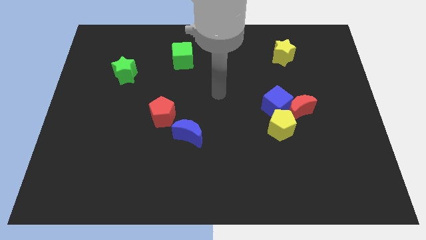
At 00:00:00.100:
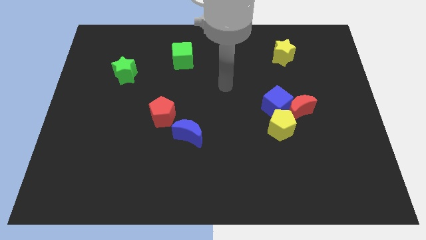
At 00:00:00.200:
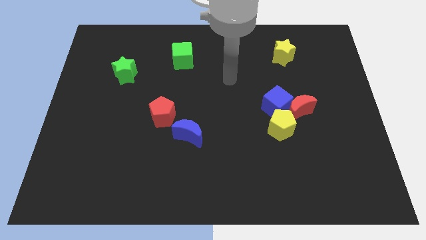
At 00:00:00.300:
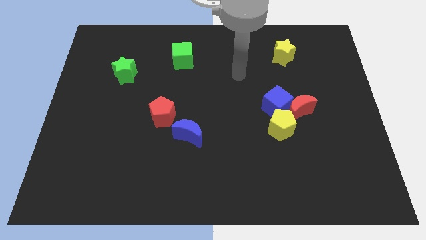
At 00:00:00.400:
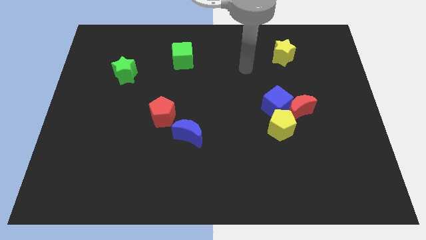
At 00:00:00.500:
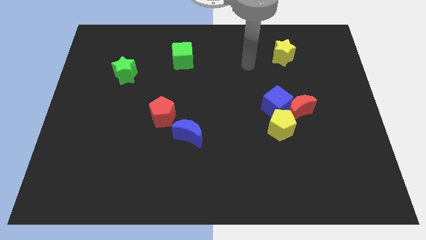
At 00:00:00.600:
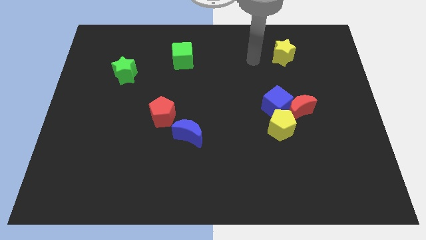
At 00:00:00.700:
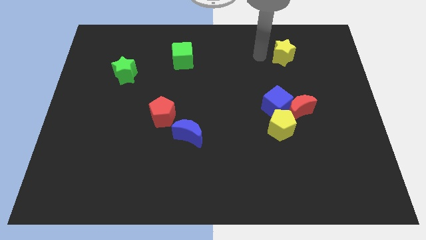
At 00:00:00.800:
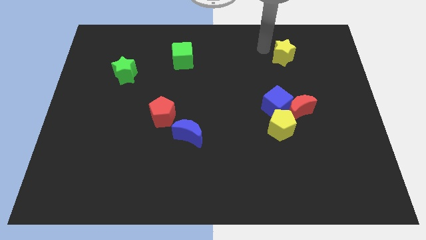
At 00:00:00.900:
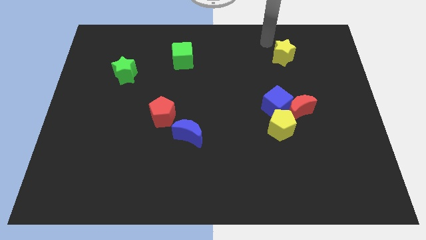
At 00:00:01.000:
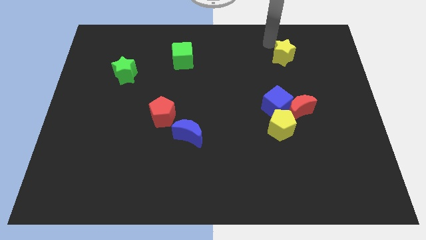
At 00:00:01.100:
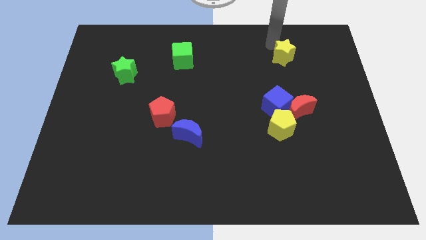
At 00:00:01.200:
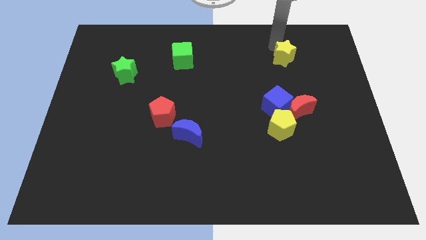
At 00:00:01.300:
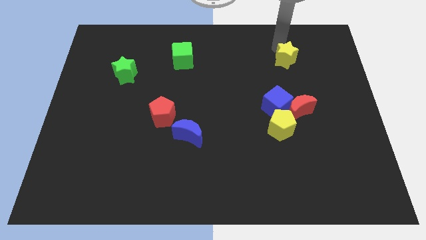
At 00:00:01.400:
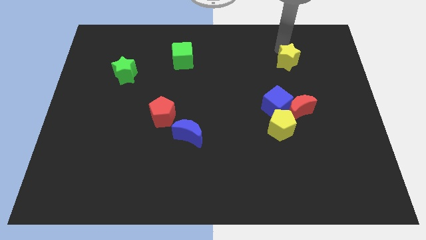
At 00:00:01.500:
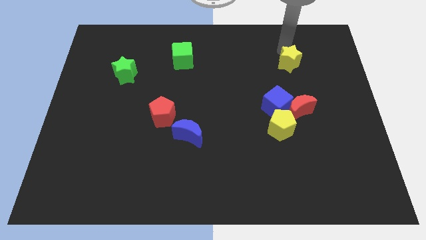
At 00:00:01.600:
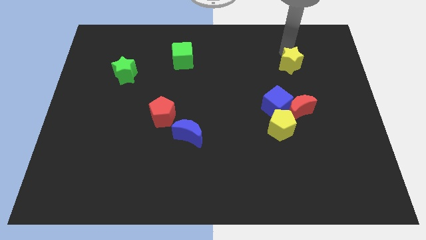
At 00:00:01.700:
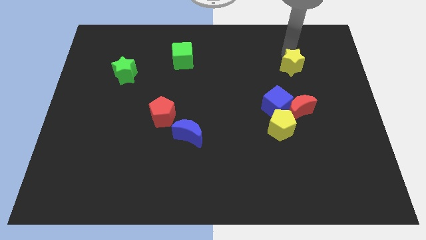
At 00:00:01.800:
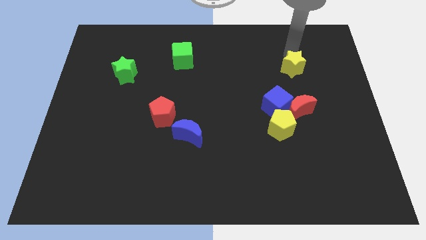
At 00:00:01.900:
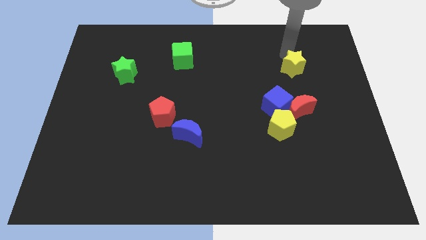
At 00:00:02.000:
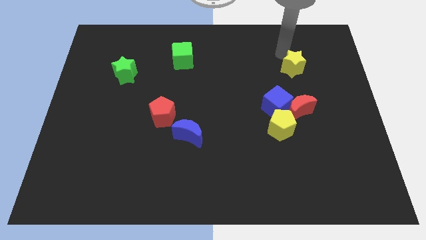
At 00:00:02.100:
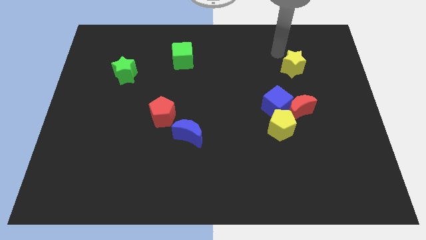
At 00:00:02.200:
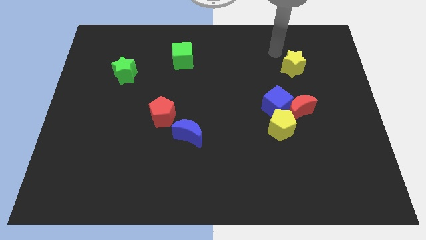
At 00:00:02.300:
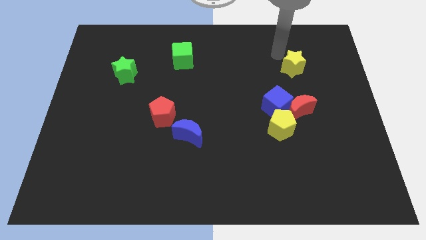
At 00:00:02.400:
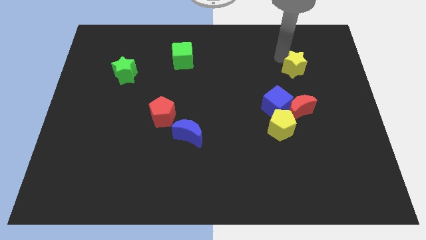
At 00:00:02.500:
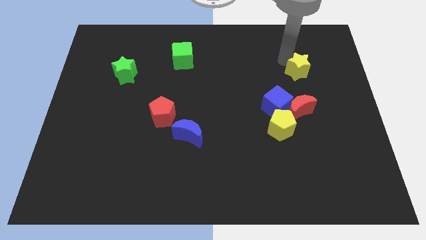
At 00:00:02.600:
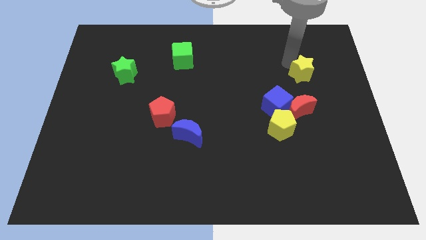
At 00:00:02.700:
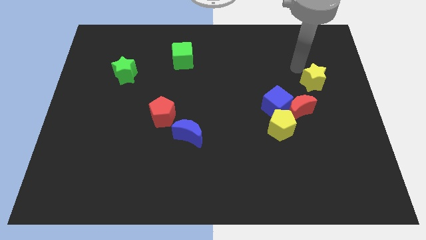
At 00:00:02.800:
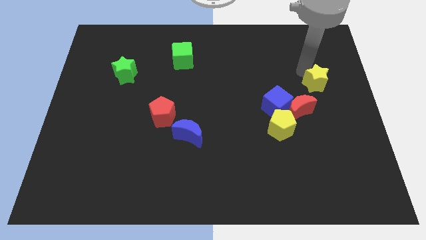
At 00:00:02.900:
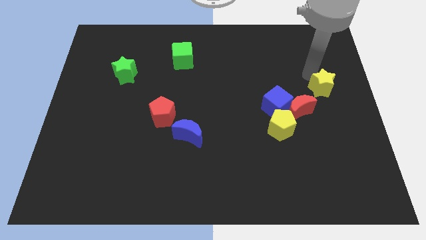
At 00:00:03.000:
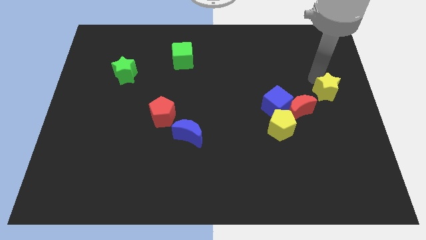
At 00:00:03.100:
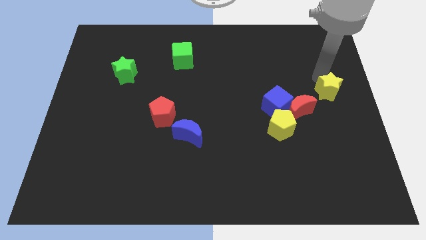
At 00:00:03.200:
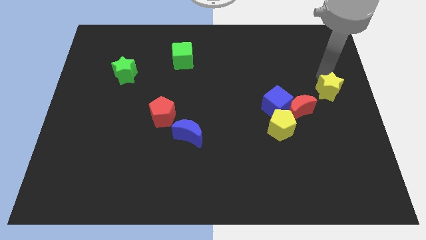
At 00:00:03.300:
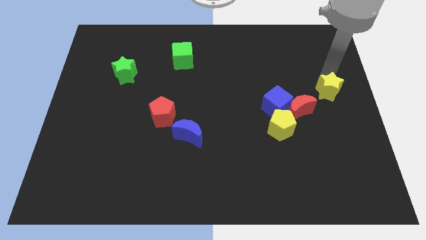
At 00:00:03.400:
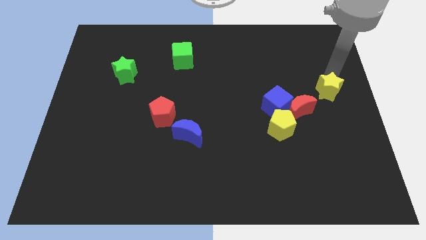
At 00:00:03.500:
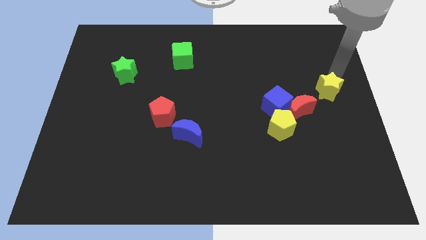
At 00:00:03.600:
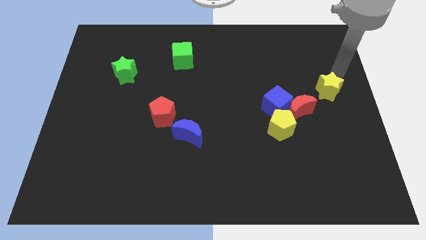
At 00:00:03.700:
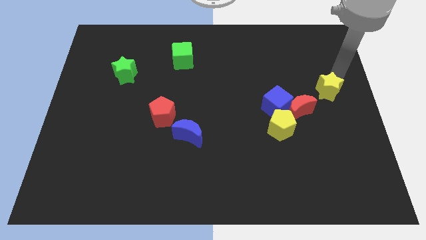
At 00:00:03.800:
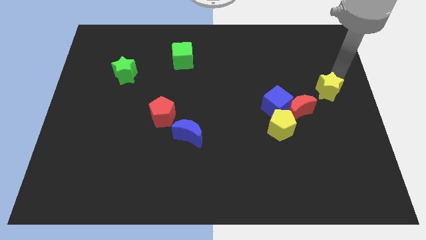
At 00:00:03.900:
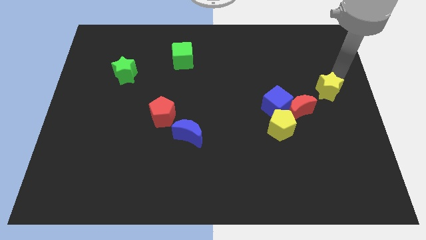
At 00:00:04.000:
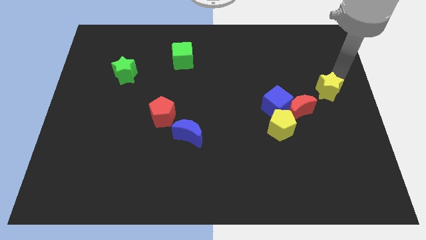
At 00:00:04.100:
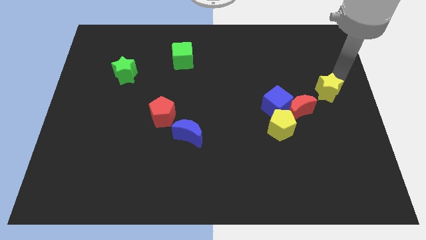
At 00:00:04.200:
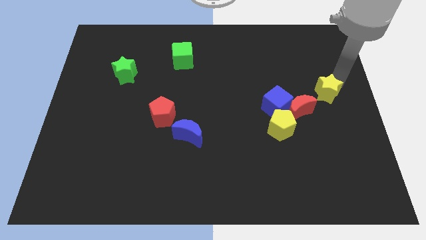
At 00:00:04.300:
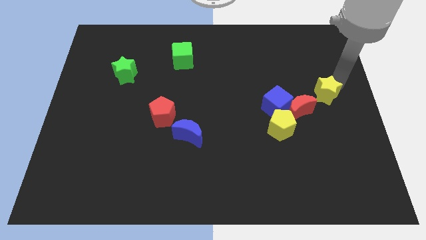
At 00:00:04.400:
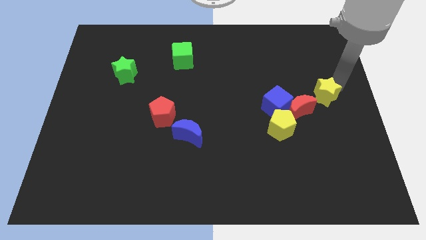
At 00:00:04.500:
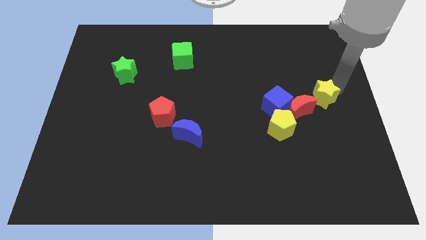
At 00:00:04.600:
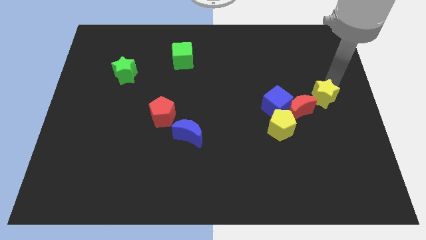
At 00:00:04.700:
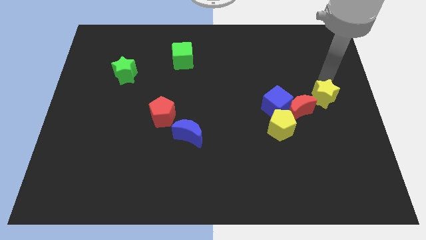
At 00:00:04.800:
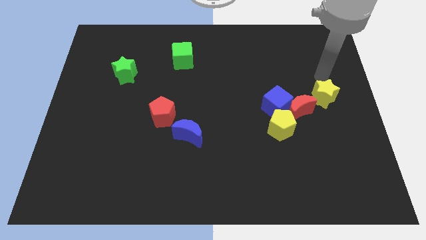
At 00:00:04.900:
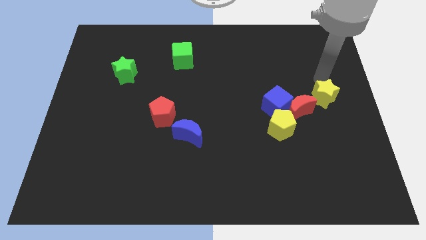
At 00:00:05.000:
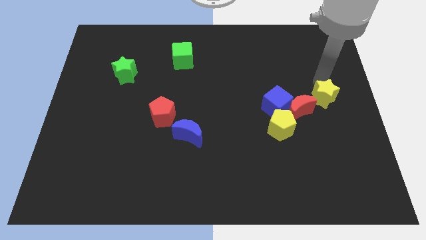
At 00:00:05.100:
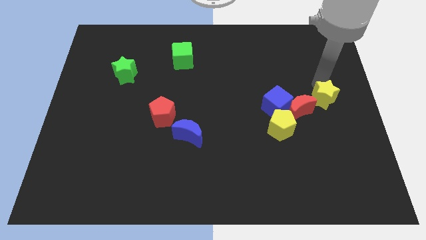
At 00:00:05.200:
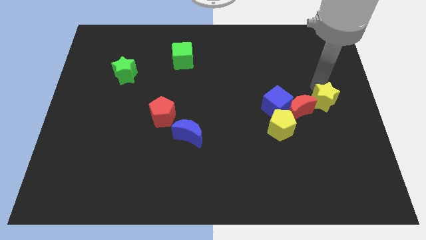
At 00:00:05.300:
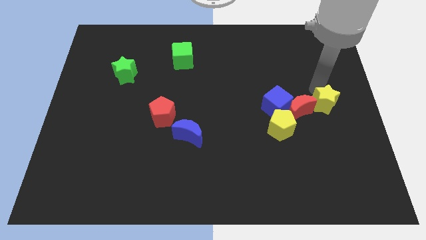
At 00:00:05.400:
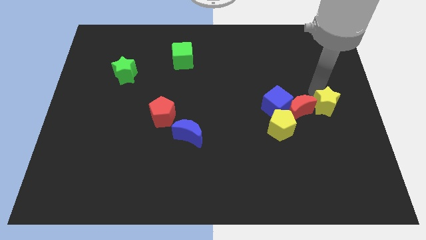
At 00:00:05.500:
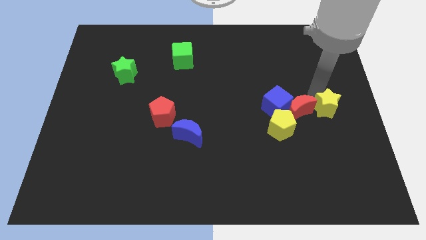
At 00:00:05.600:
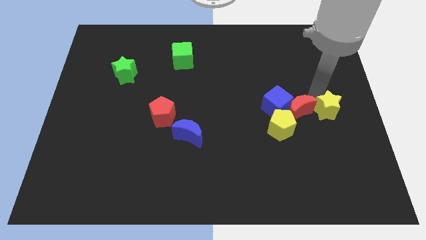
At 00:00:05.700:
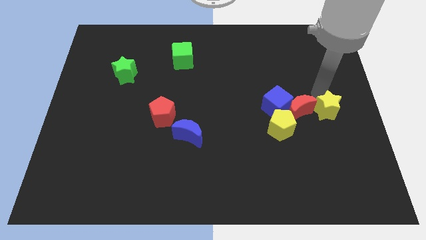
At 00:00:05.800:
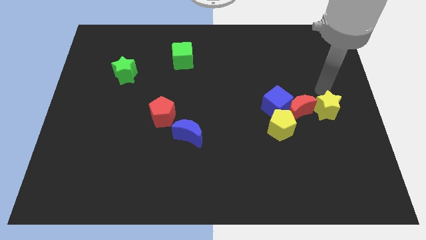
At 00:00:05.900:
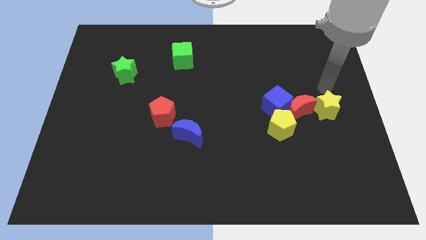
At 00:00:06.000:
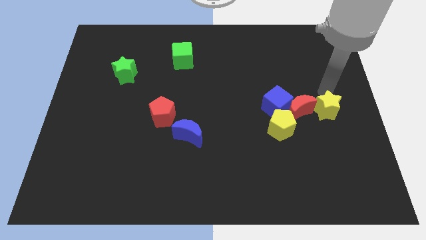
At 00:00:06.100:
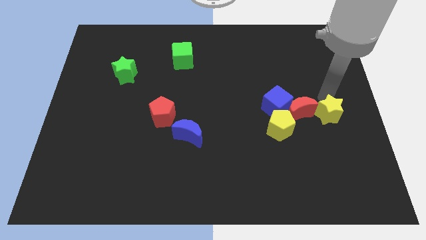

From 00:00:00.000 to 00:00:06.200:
slide the yellow star right of the yellow pentagon
